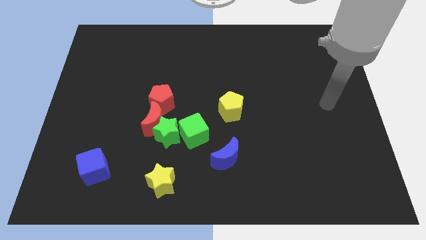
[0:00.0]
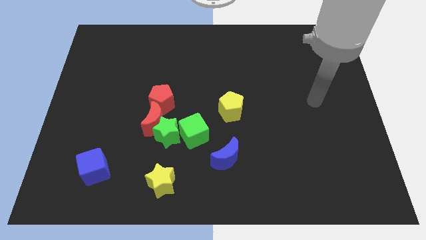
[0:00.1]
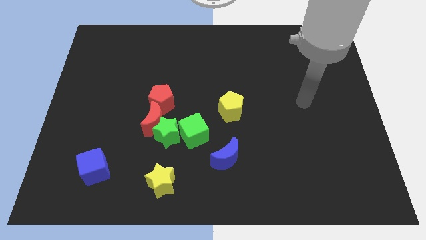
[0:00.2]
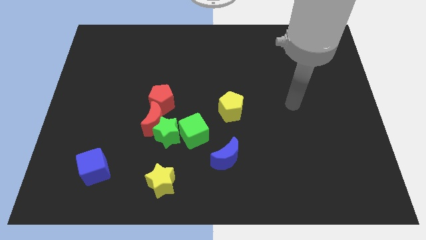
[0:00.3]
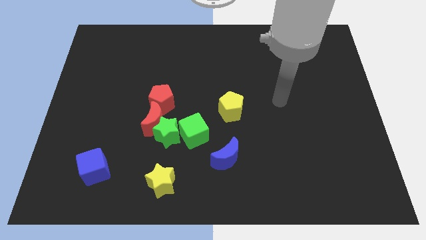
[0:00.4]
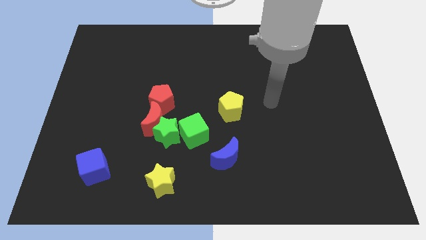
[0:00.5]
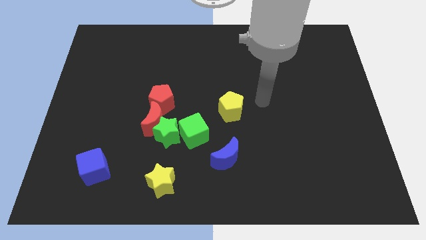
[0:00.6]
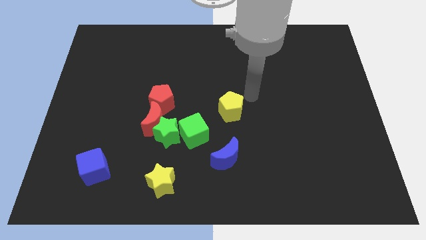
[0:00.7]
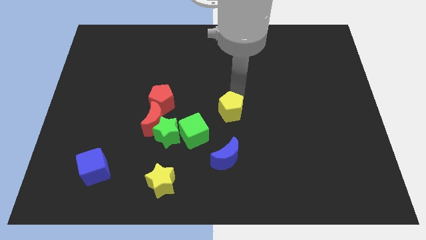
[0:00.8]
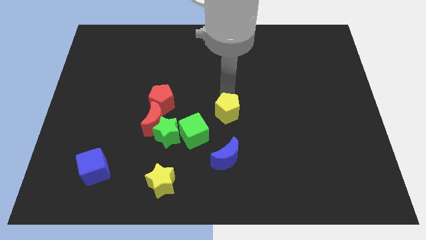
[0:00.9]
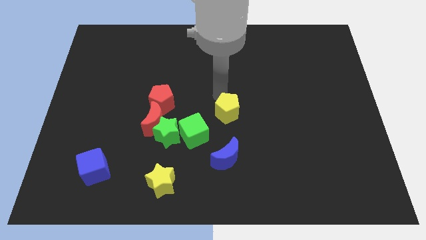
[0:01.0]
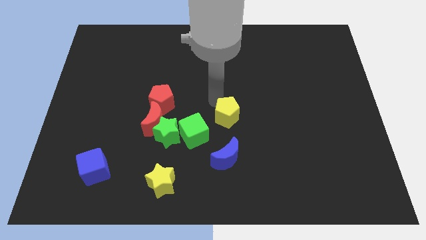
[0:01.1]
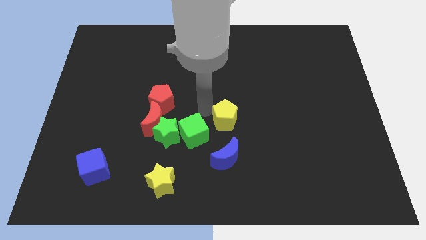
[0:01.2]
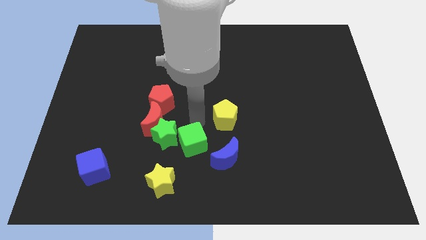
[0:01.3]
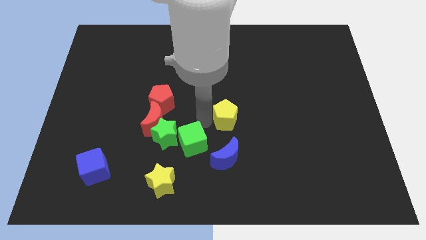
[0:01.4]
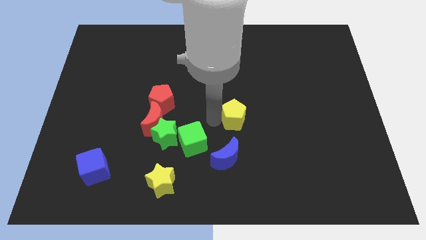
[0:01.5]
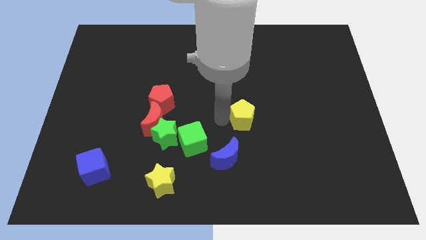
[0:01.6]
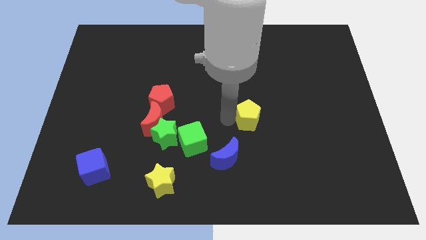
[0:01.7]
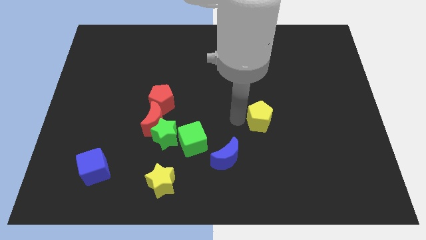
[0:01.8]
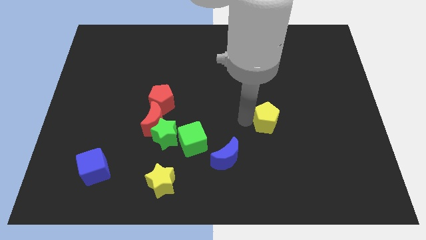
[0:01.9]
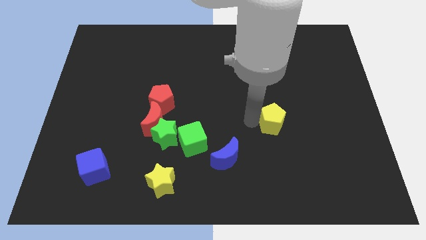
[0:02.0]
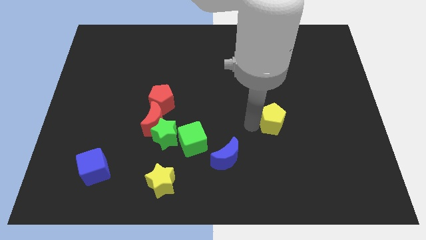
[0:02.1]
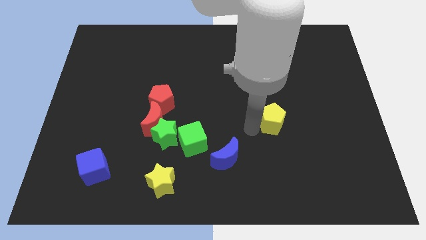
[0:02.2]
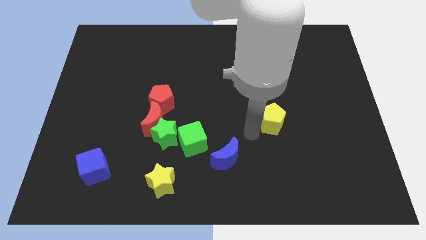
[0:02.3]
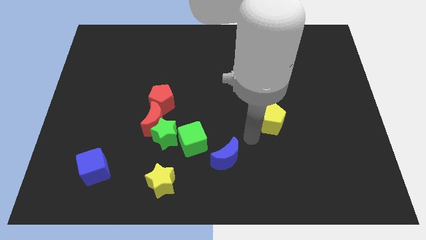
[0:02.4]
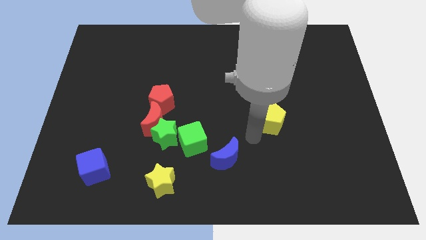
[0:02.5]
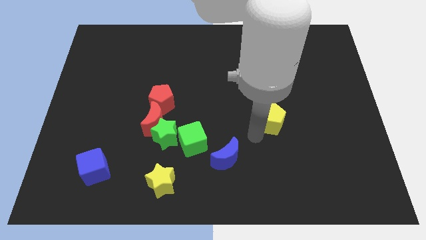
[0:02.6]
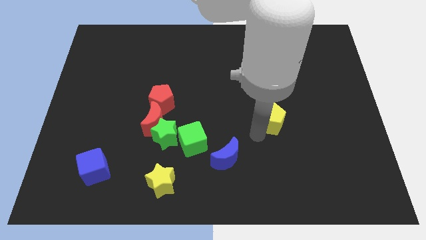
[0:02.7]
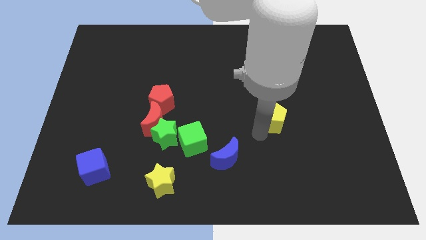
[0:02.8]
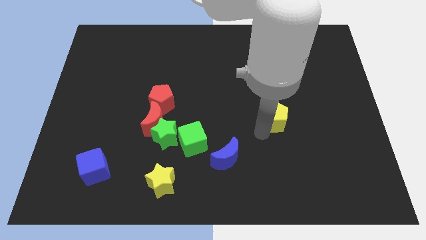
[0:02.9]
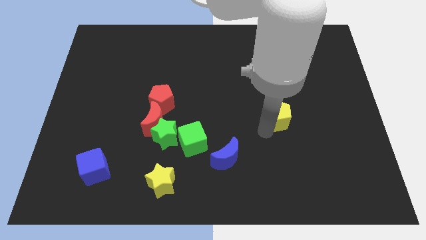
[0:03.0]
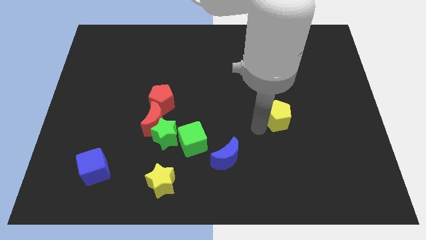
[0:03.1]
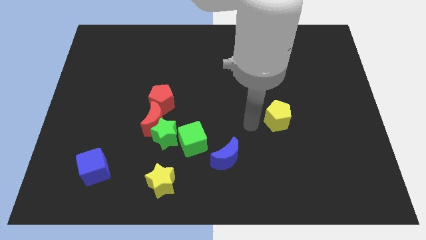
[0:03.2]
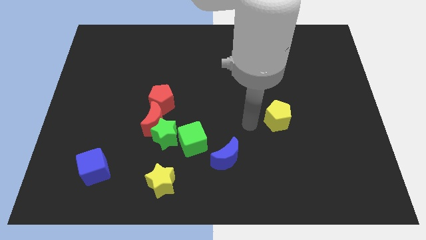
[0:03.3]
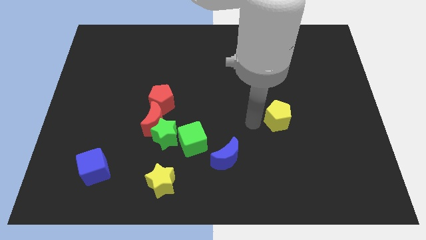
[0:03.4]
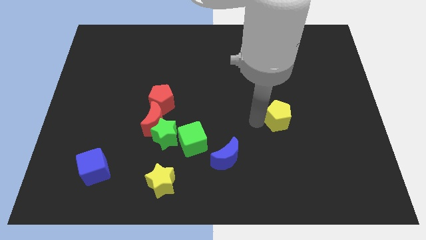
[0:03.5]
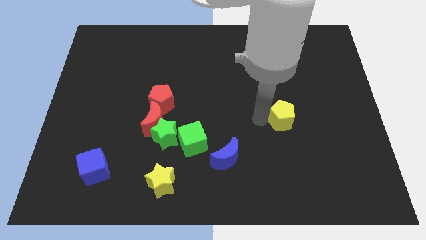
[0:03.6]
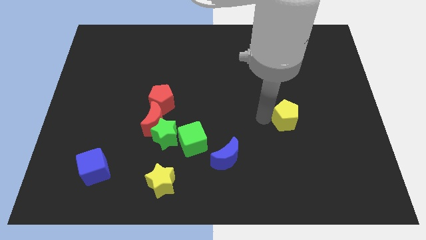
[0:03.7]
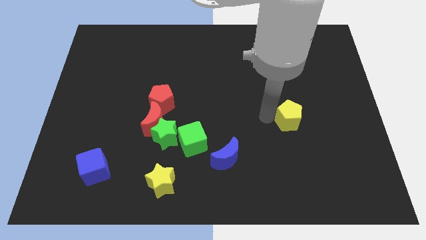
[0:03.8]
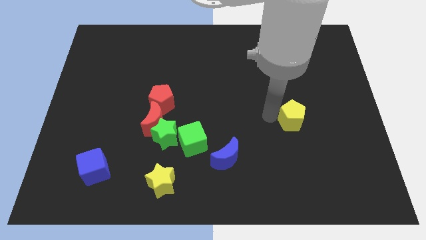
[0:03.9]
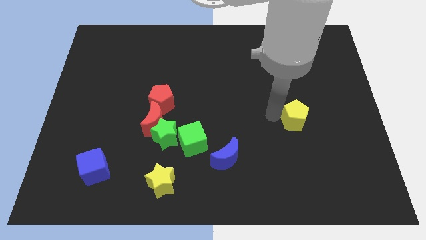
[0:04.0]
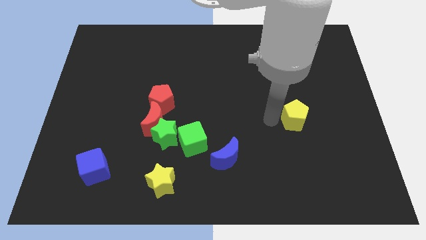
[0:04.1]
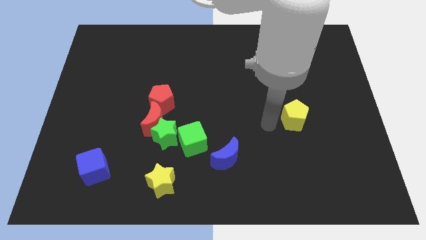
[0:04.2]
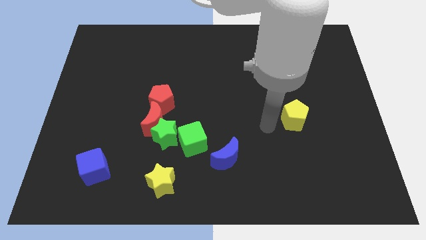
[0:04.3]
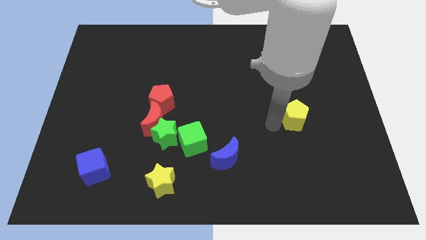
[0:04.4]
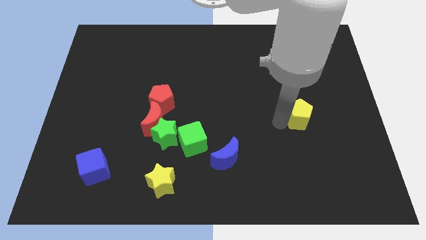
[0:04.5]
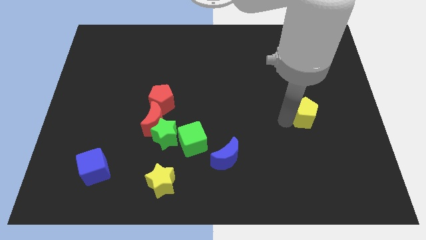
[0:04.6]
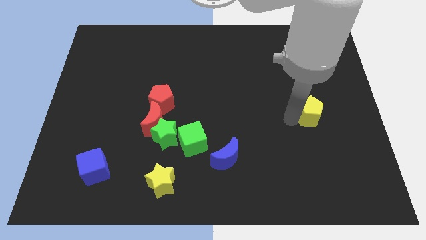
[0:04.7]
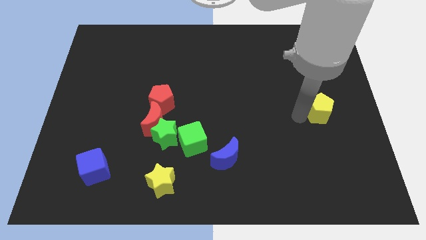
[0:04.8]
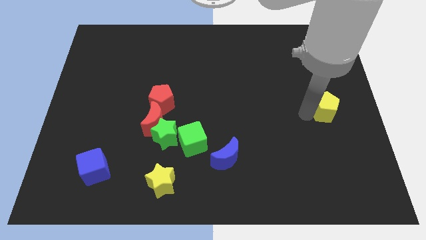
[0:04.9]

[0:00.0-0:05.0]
push the yellow pentagon to the center right

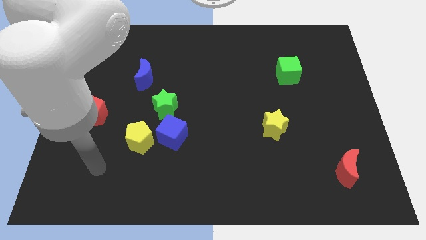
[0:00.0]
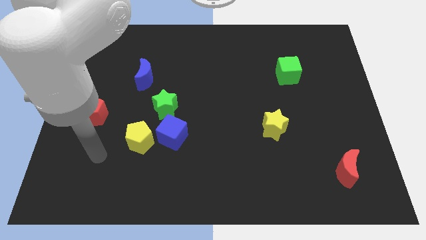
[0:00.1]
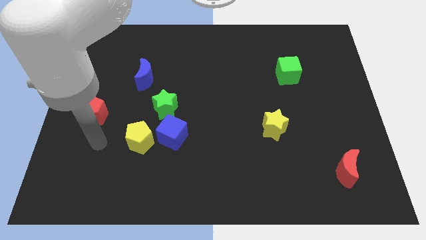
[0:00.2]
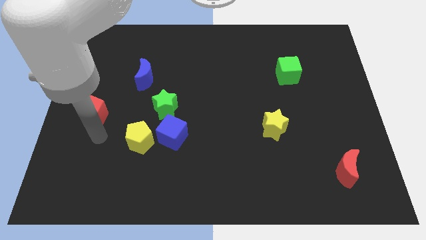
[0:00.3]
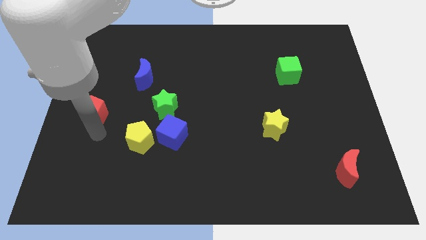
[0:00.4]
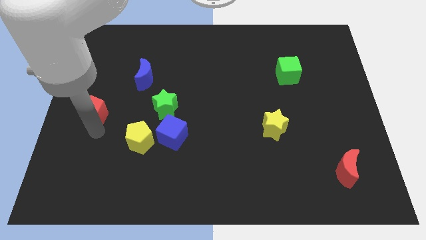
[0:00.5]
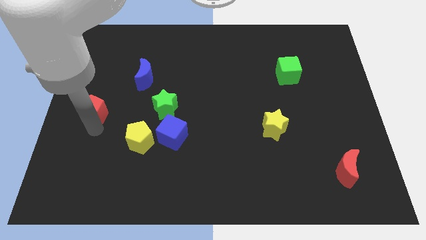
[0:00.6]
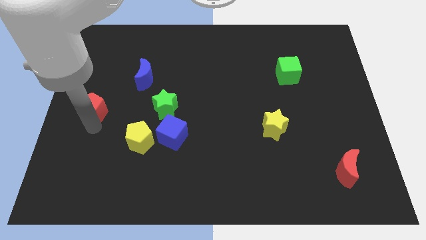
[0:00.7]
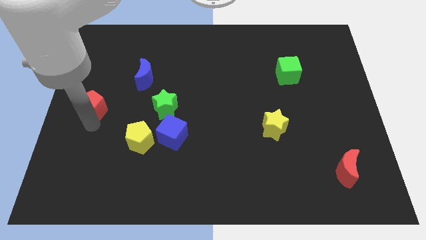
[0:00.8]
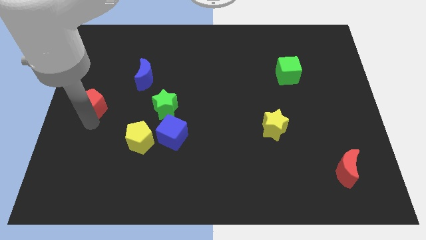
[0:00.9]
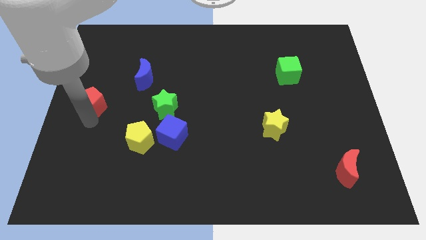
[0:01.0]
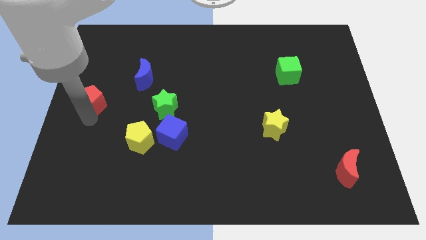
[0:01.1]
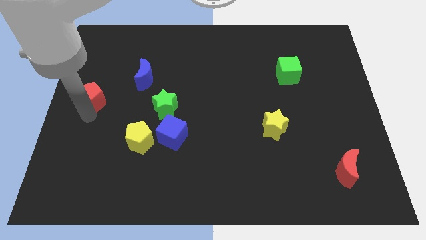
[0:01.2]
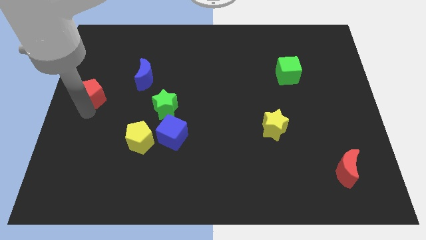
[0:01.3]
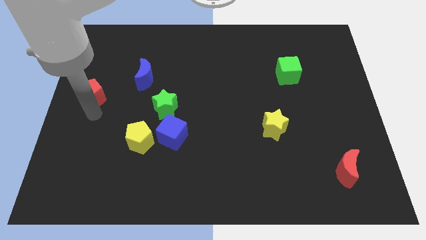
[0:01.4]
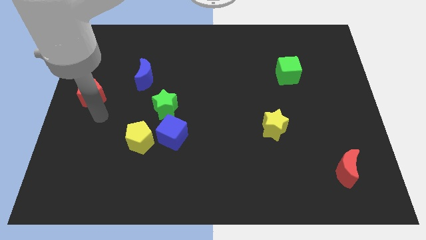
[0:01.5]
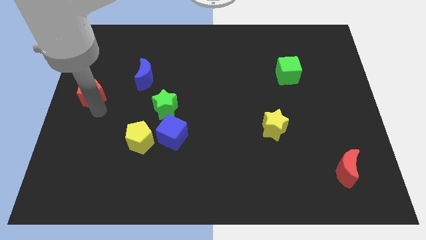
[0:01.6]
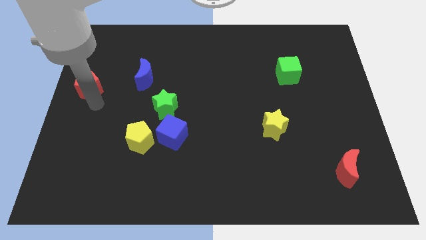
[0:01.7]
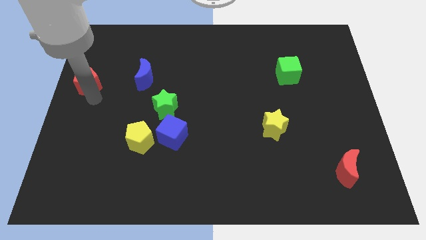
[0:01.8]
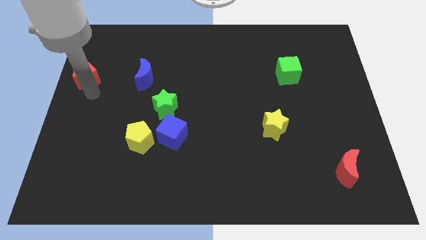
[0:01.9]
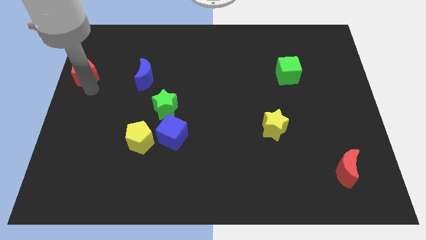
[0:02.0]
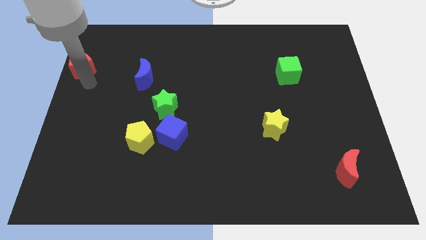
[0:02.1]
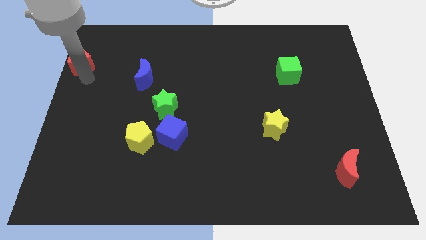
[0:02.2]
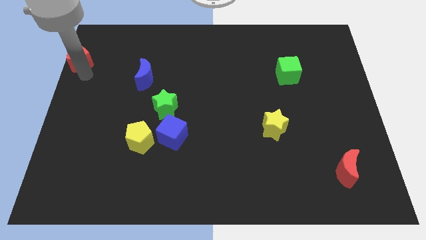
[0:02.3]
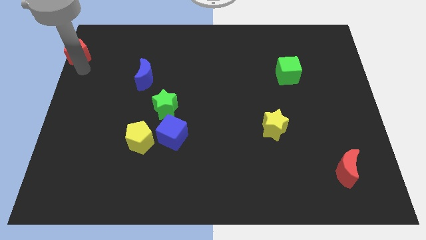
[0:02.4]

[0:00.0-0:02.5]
slide the red pentagon to the upper left corner

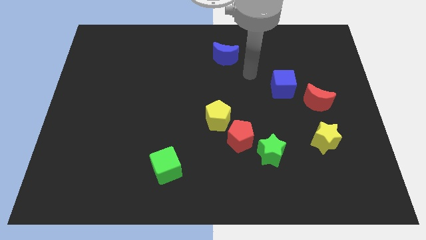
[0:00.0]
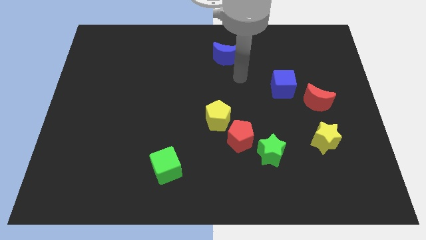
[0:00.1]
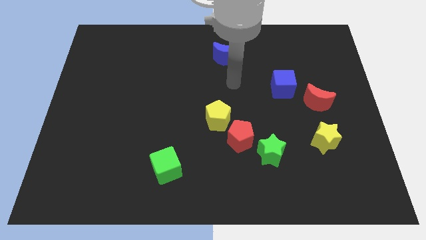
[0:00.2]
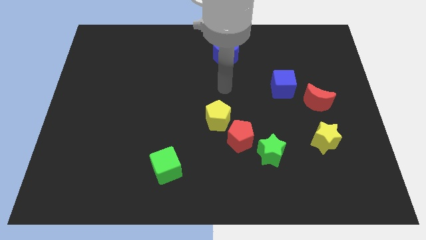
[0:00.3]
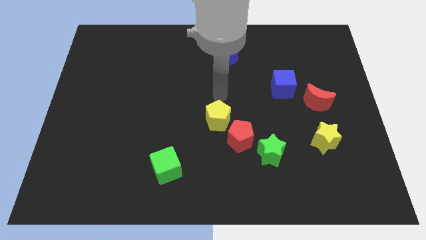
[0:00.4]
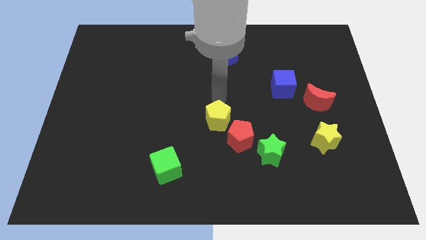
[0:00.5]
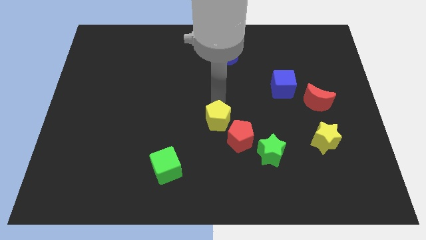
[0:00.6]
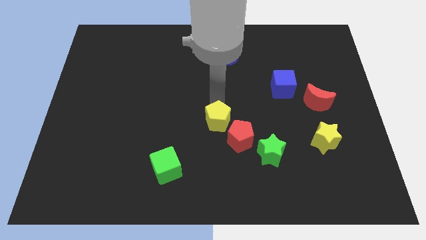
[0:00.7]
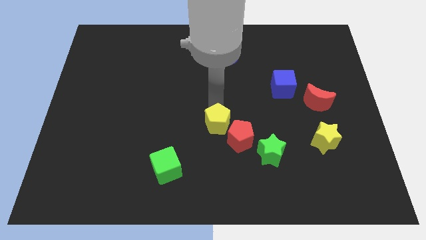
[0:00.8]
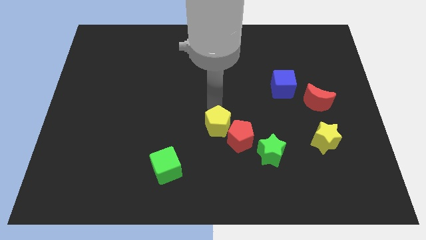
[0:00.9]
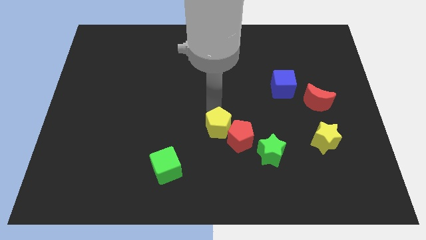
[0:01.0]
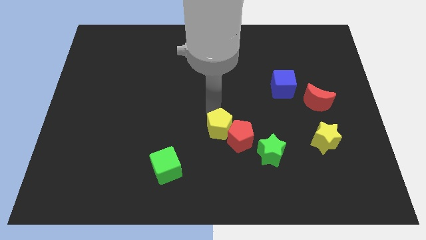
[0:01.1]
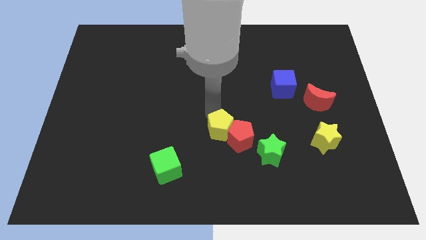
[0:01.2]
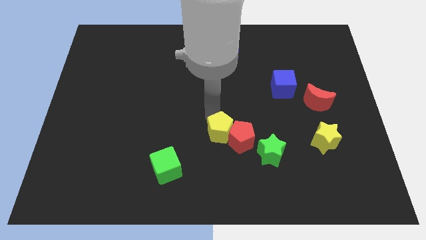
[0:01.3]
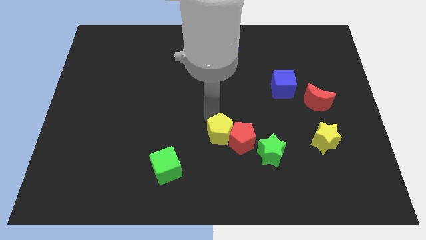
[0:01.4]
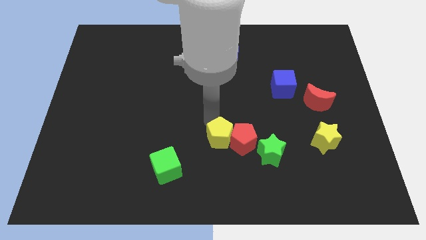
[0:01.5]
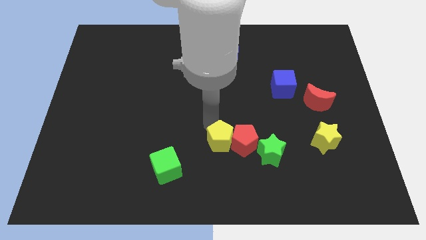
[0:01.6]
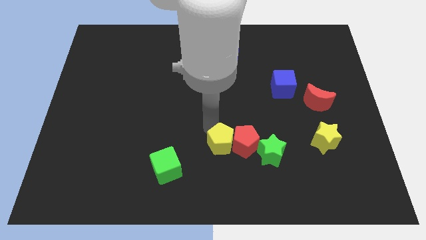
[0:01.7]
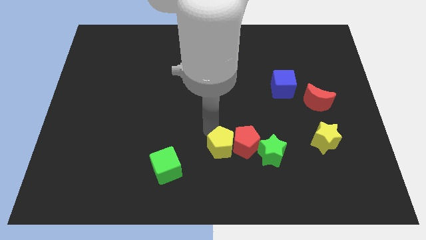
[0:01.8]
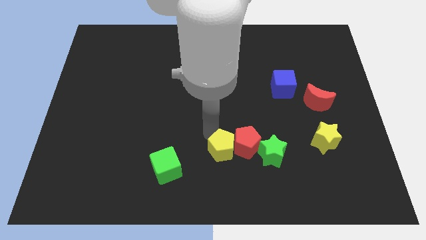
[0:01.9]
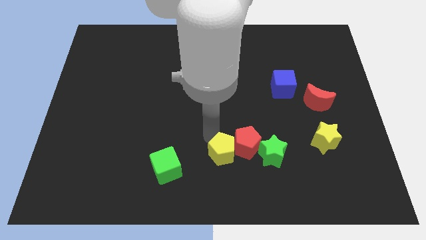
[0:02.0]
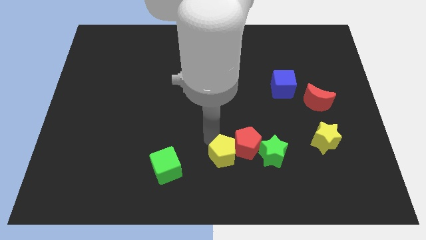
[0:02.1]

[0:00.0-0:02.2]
slide the yellow pentagon to the bottom
